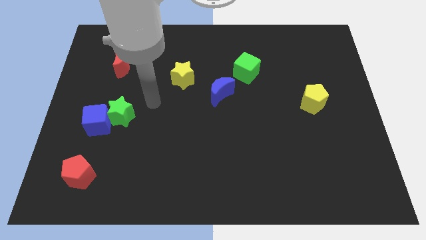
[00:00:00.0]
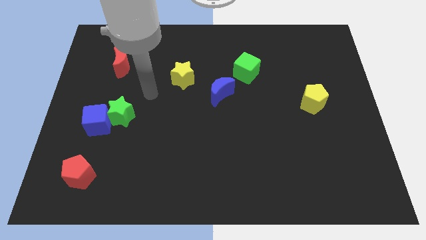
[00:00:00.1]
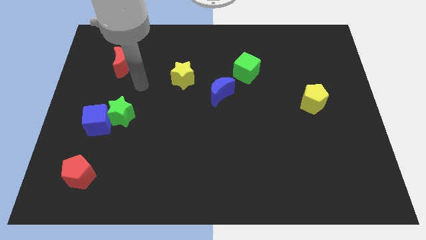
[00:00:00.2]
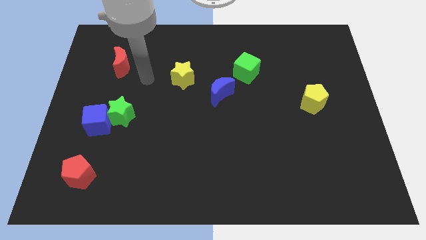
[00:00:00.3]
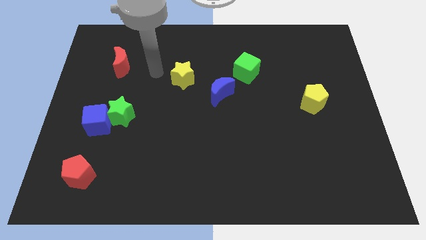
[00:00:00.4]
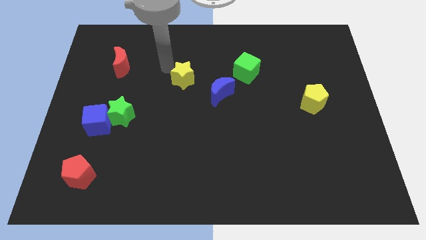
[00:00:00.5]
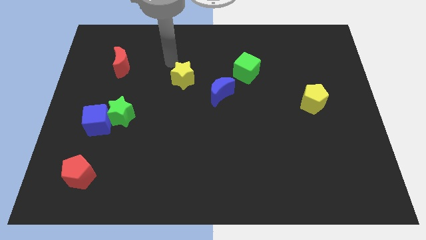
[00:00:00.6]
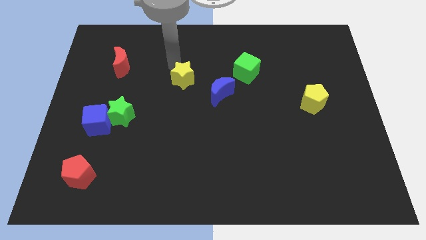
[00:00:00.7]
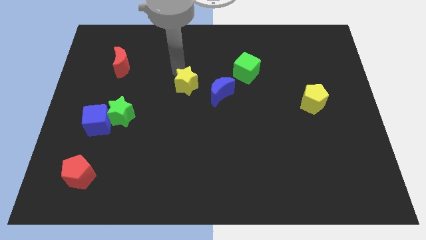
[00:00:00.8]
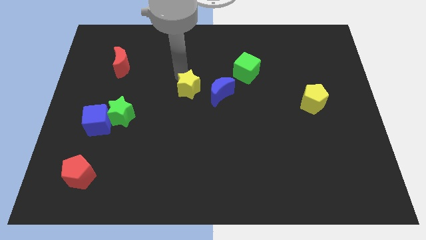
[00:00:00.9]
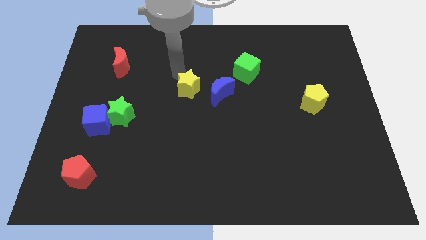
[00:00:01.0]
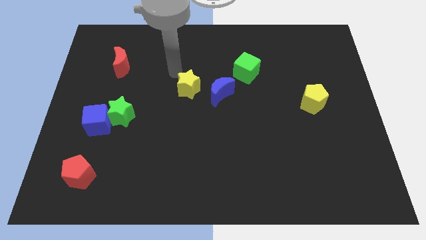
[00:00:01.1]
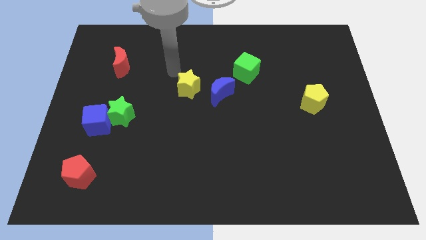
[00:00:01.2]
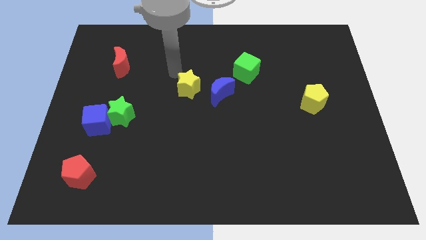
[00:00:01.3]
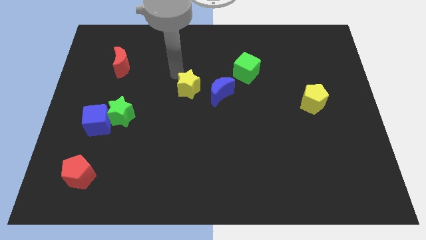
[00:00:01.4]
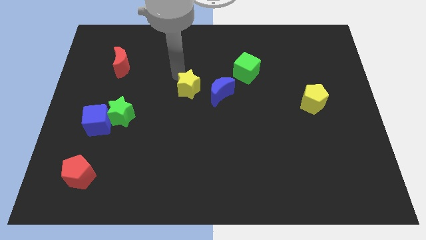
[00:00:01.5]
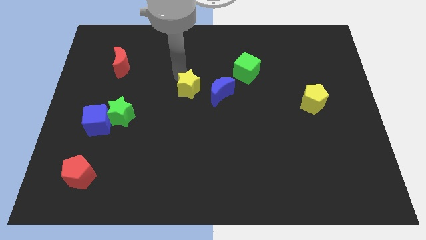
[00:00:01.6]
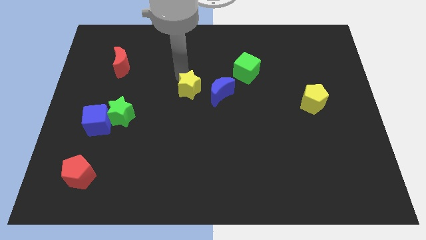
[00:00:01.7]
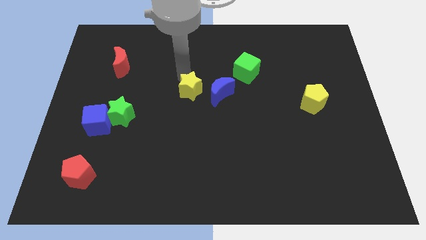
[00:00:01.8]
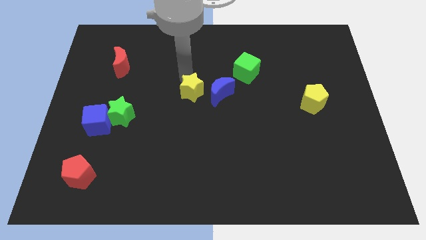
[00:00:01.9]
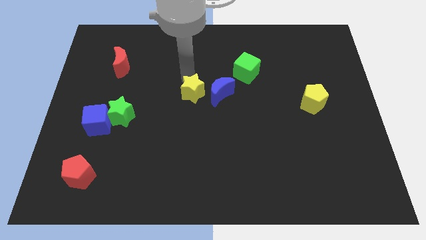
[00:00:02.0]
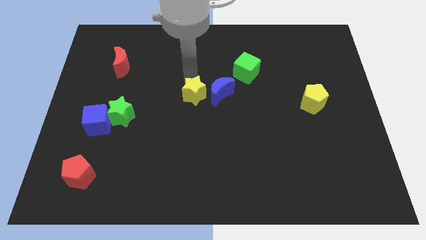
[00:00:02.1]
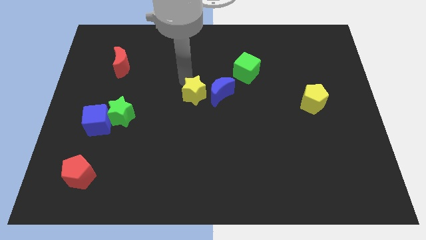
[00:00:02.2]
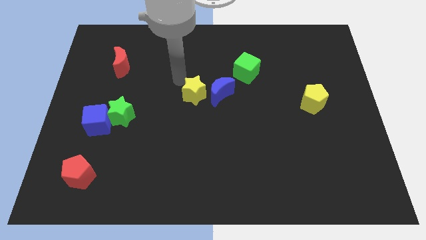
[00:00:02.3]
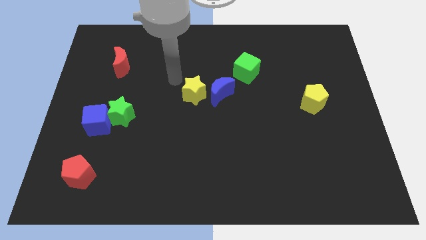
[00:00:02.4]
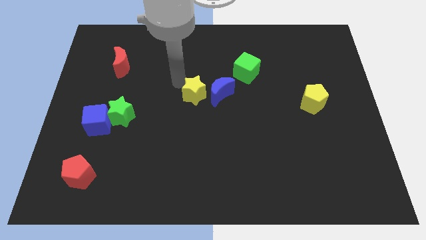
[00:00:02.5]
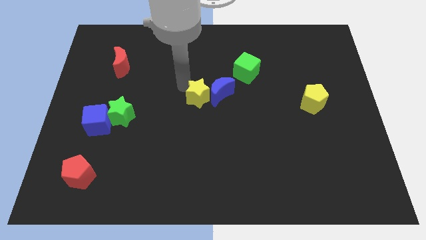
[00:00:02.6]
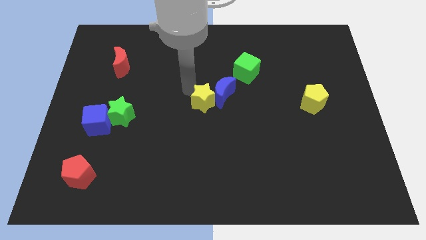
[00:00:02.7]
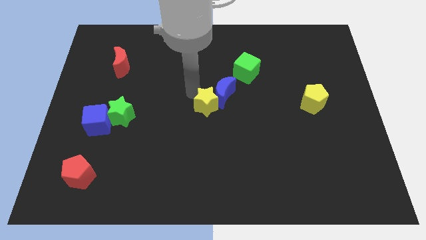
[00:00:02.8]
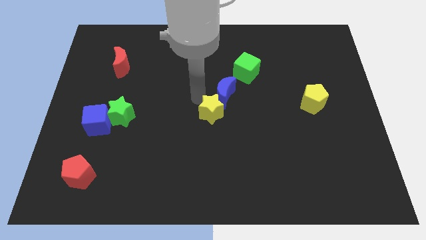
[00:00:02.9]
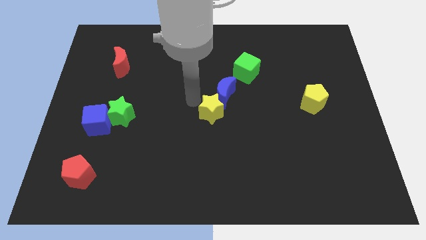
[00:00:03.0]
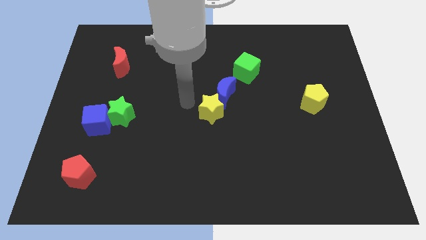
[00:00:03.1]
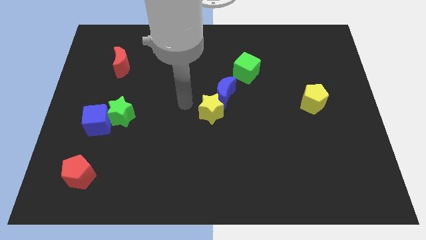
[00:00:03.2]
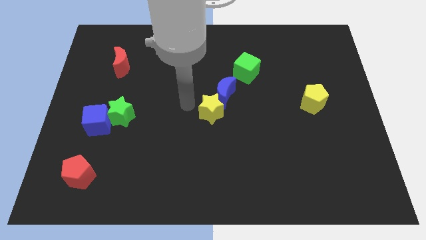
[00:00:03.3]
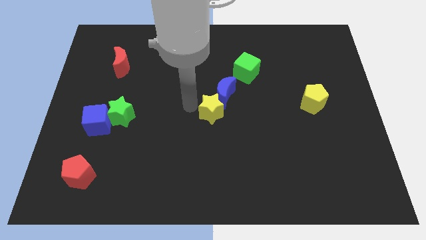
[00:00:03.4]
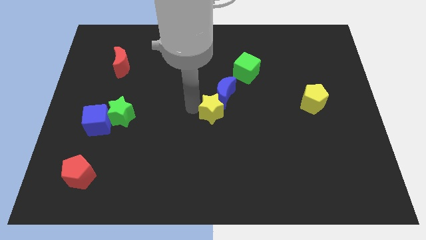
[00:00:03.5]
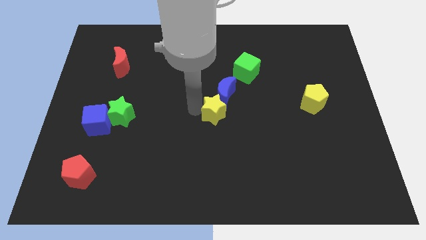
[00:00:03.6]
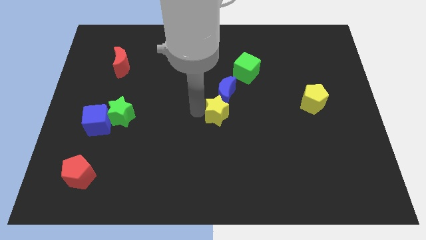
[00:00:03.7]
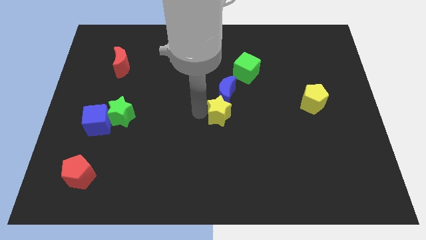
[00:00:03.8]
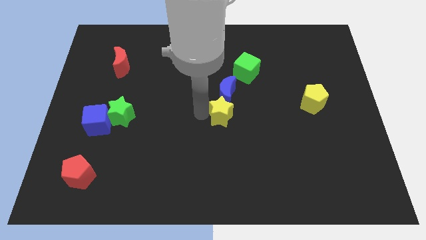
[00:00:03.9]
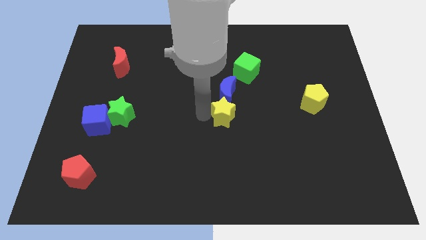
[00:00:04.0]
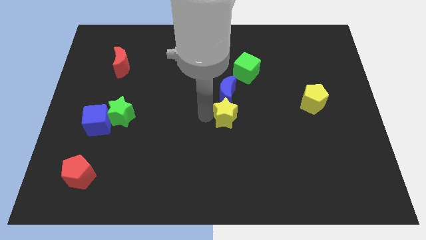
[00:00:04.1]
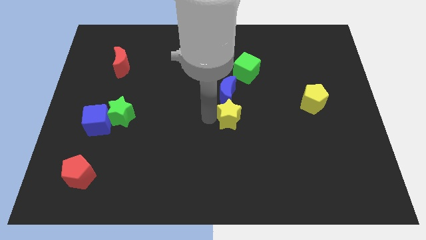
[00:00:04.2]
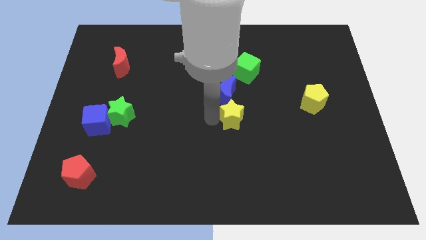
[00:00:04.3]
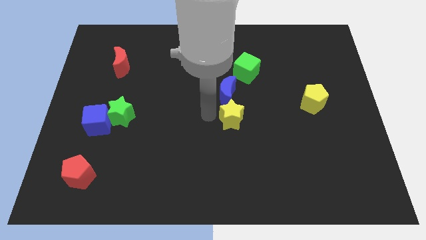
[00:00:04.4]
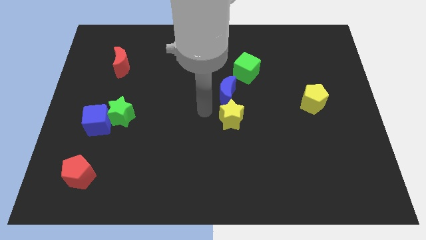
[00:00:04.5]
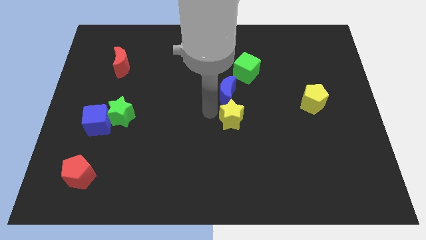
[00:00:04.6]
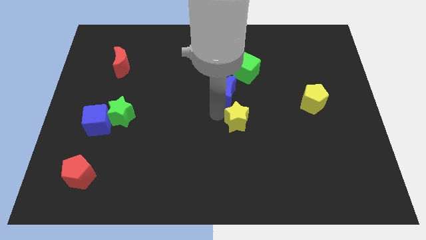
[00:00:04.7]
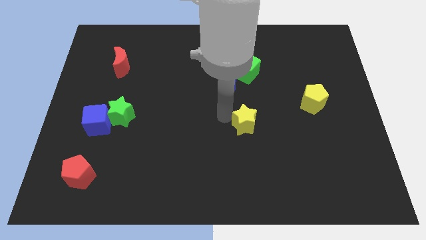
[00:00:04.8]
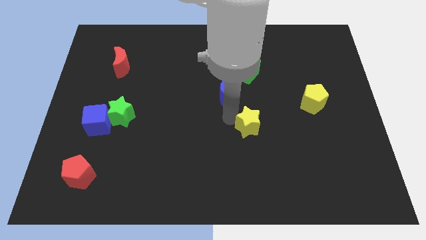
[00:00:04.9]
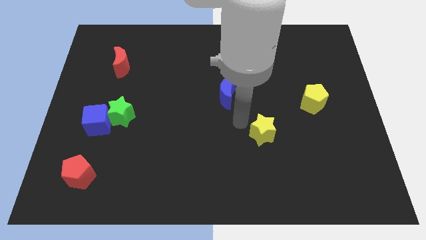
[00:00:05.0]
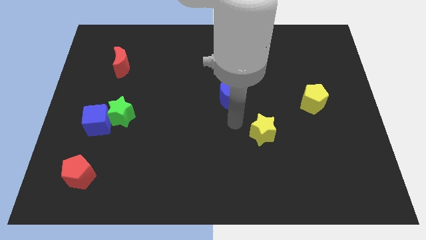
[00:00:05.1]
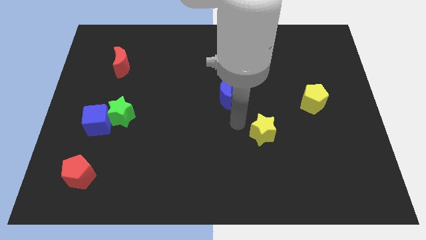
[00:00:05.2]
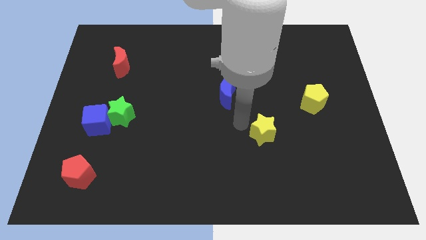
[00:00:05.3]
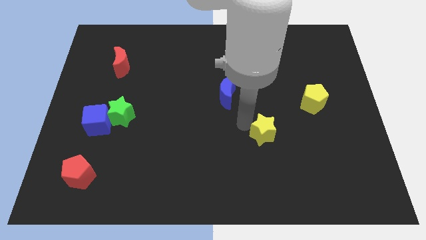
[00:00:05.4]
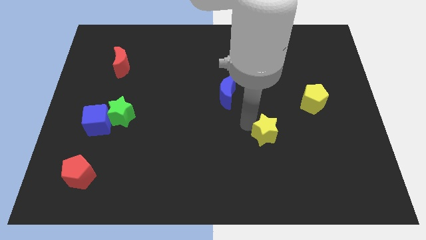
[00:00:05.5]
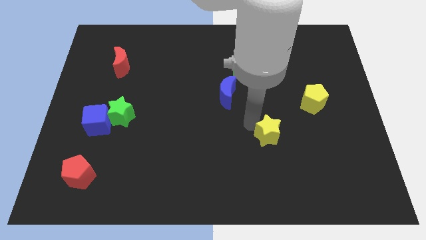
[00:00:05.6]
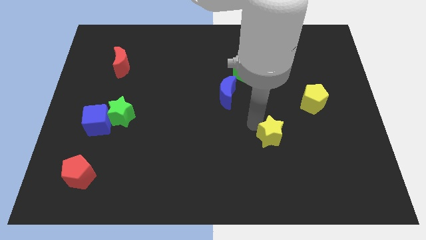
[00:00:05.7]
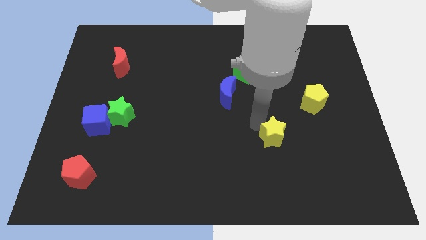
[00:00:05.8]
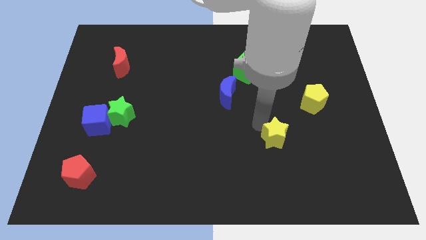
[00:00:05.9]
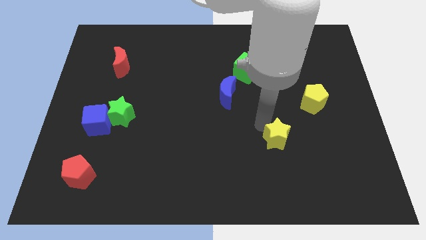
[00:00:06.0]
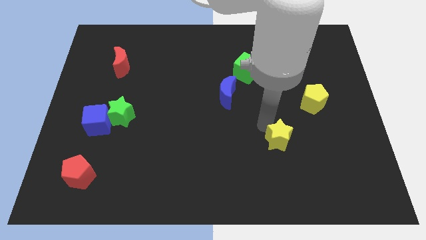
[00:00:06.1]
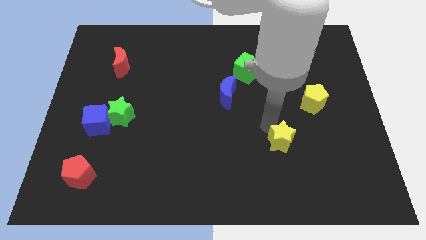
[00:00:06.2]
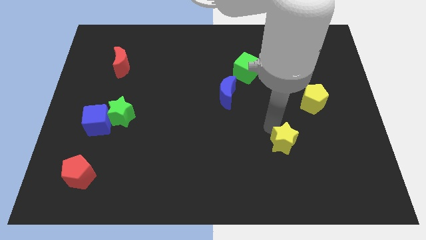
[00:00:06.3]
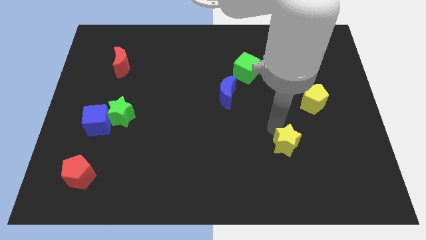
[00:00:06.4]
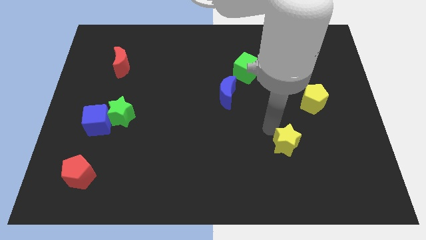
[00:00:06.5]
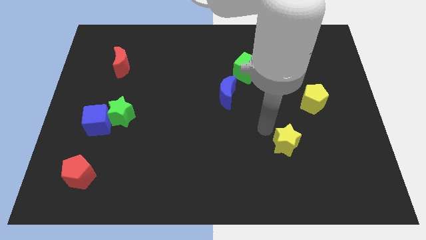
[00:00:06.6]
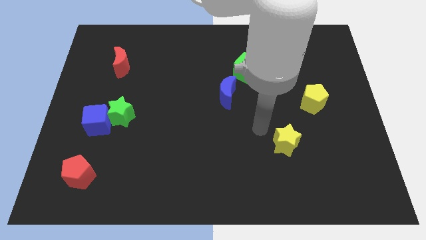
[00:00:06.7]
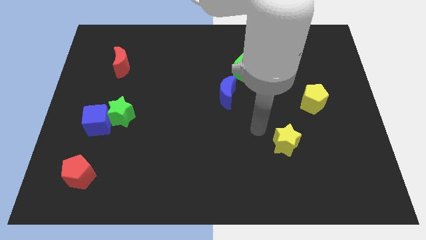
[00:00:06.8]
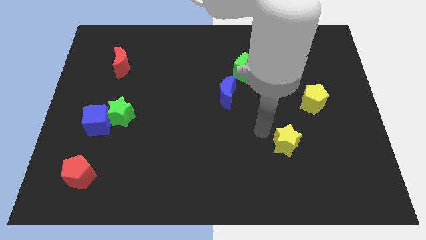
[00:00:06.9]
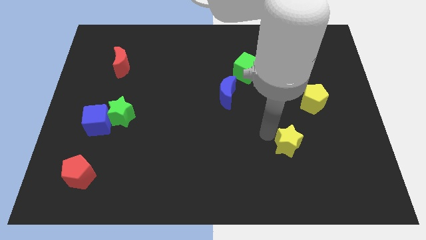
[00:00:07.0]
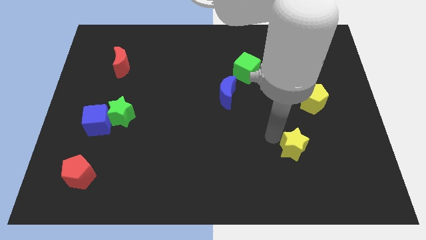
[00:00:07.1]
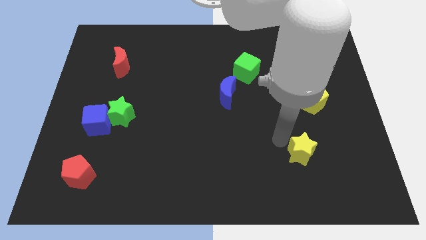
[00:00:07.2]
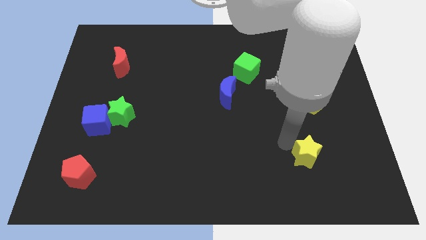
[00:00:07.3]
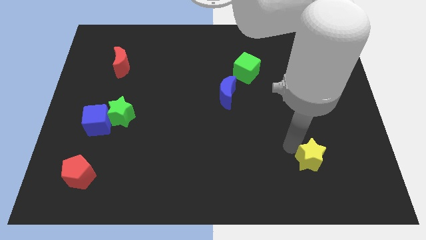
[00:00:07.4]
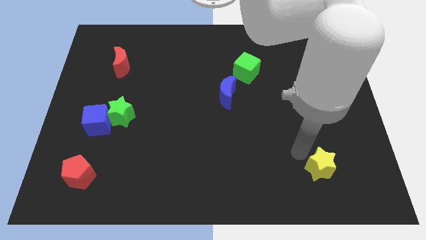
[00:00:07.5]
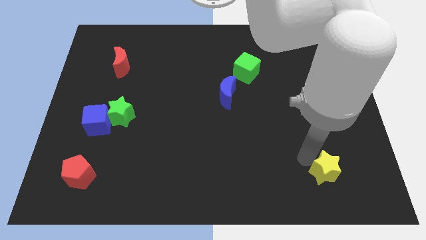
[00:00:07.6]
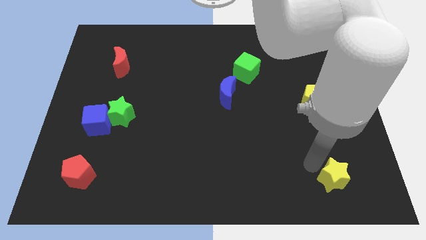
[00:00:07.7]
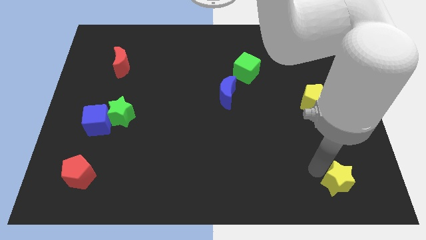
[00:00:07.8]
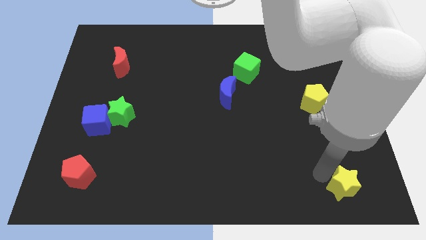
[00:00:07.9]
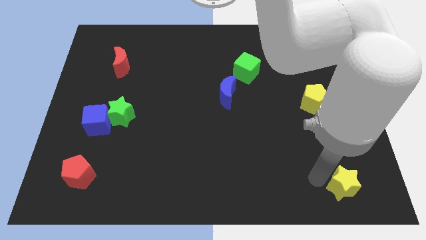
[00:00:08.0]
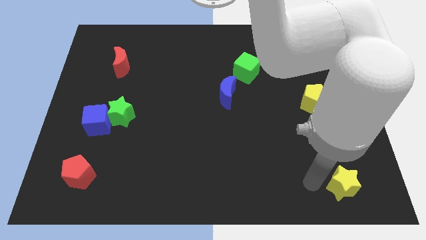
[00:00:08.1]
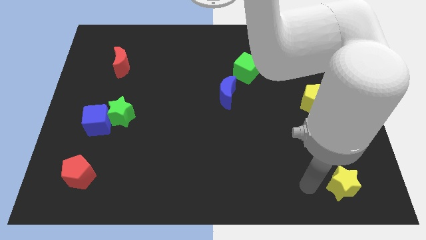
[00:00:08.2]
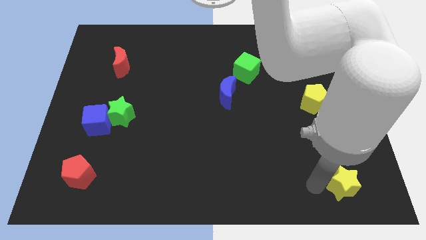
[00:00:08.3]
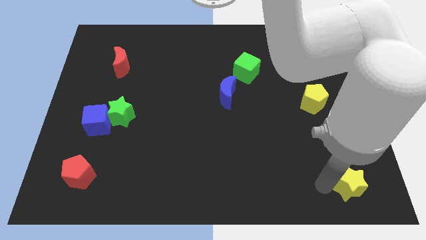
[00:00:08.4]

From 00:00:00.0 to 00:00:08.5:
put the yellow star to the bottom right corner

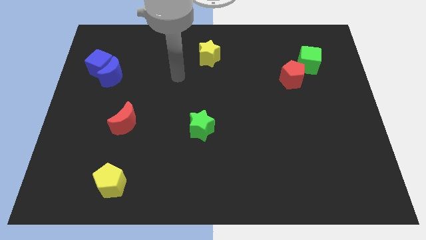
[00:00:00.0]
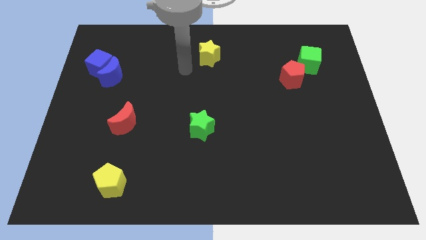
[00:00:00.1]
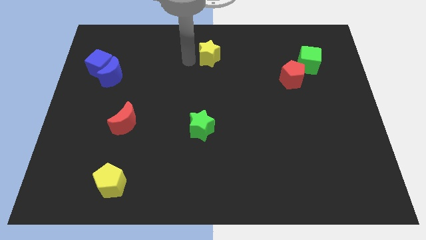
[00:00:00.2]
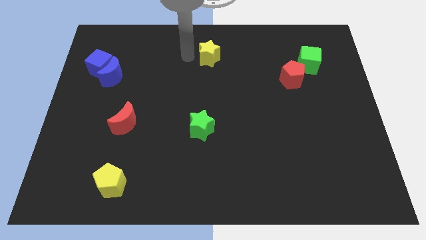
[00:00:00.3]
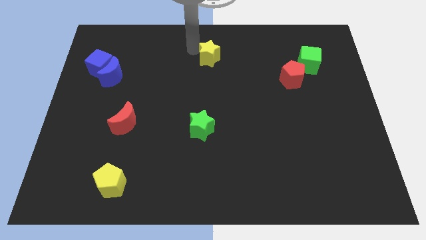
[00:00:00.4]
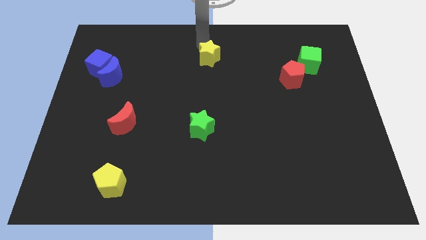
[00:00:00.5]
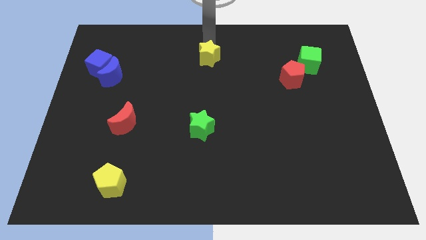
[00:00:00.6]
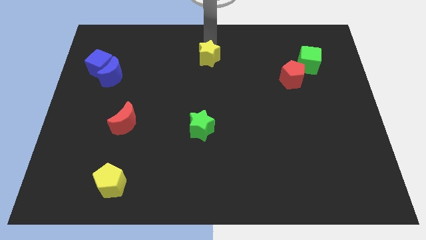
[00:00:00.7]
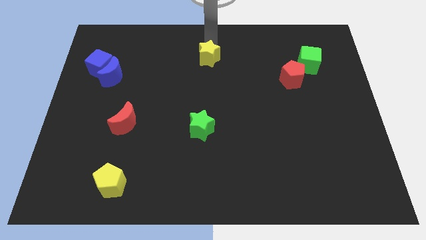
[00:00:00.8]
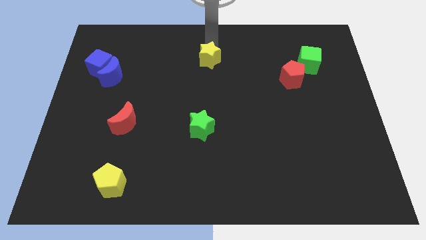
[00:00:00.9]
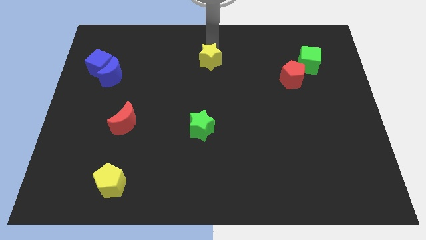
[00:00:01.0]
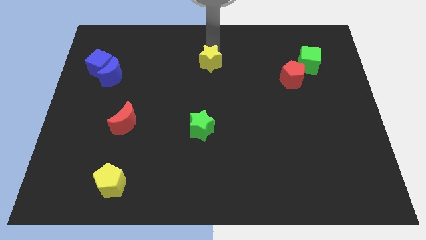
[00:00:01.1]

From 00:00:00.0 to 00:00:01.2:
slide the yellow star to the center
